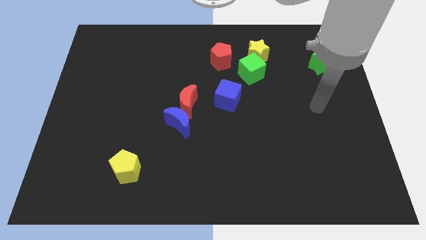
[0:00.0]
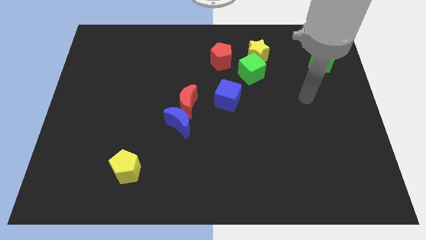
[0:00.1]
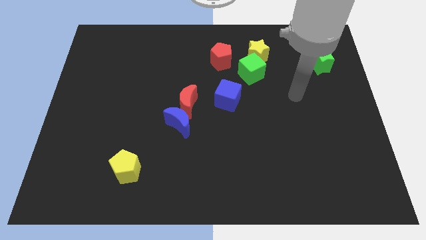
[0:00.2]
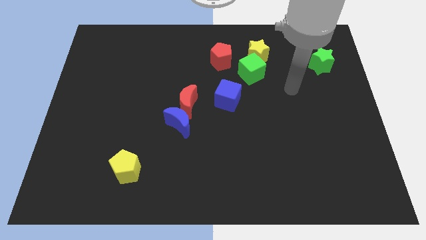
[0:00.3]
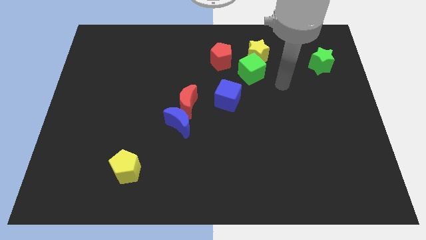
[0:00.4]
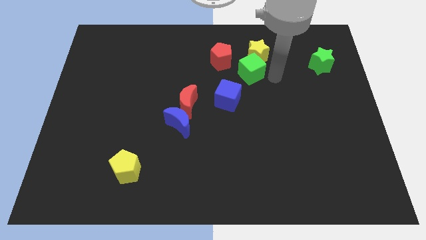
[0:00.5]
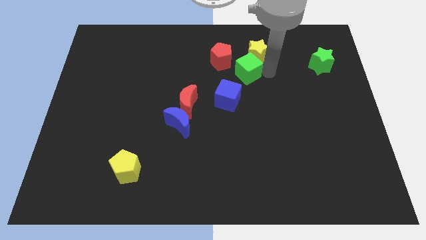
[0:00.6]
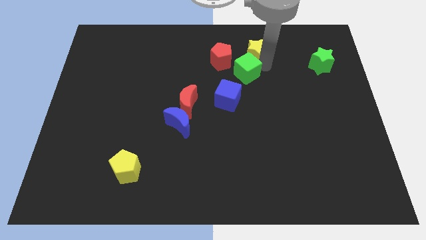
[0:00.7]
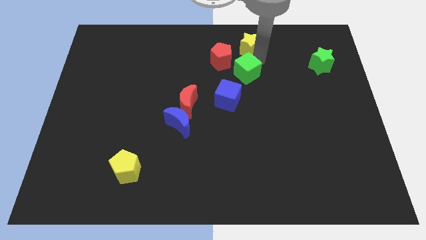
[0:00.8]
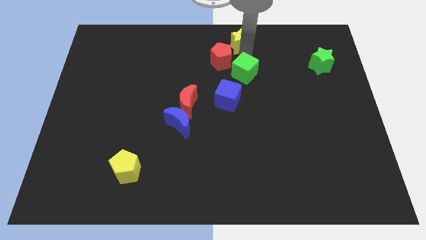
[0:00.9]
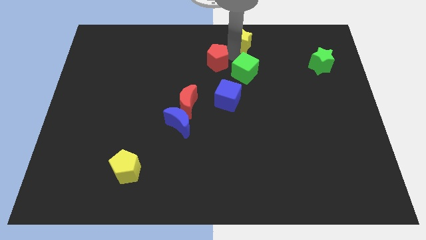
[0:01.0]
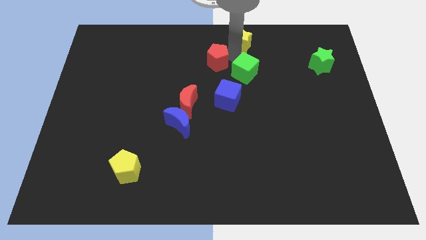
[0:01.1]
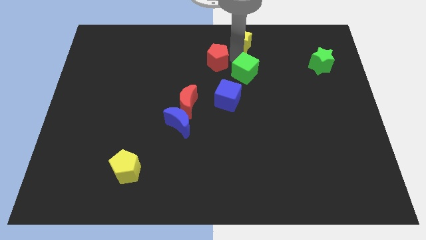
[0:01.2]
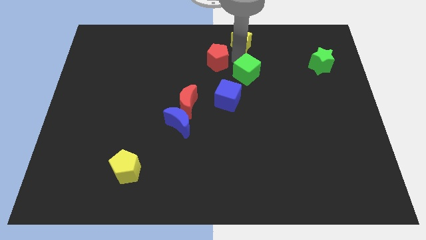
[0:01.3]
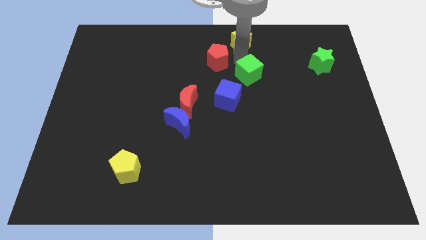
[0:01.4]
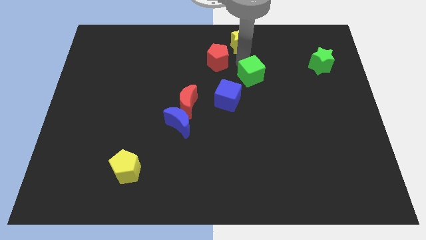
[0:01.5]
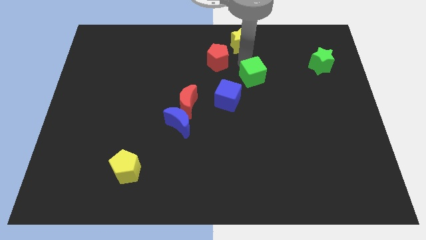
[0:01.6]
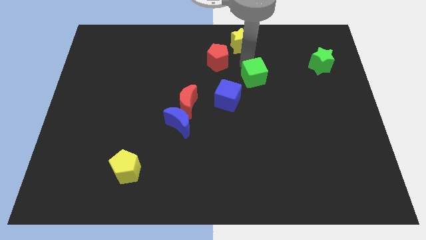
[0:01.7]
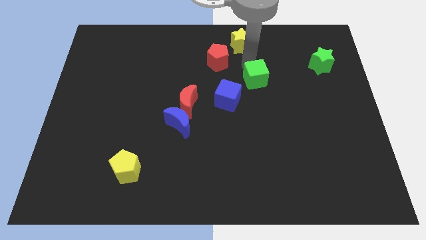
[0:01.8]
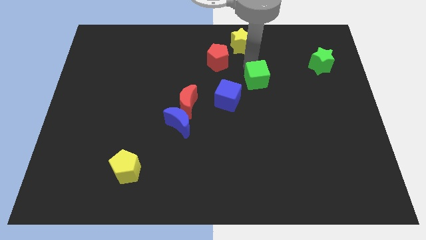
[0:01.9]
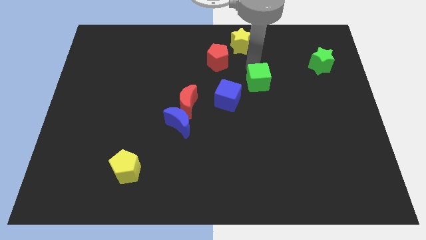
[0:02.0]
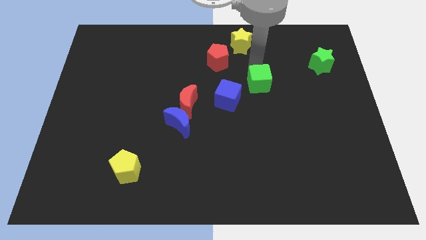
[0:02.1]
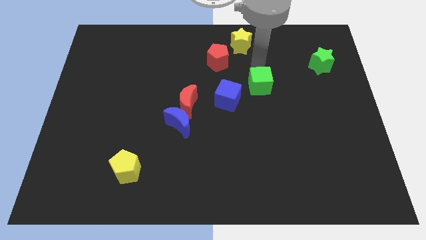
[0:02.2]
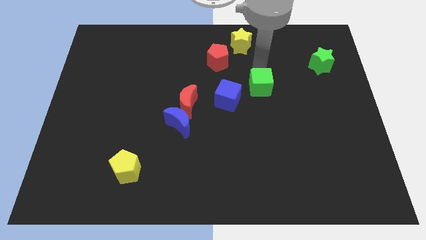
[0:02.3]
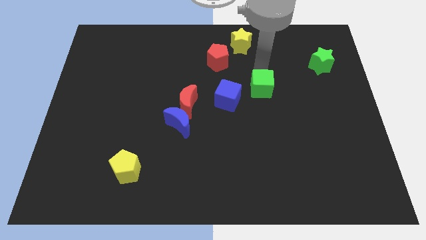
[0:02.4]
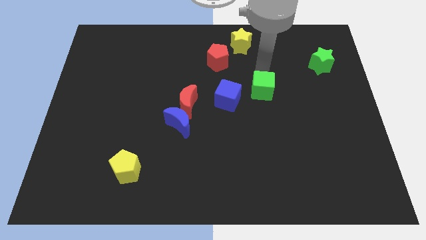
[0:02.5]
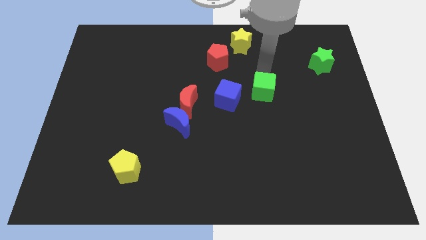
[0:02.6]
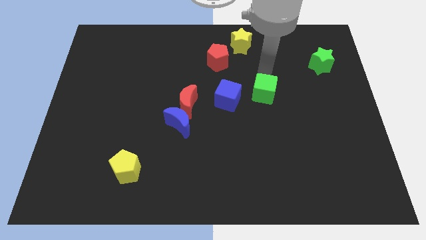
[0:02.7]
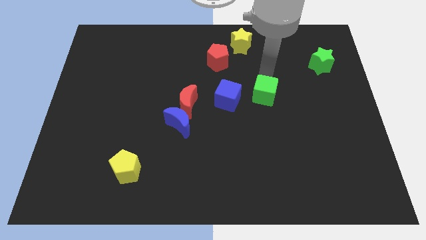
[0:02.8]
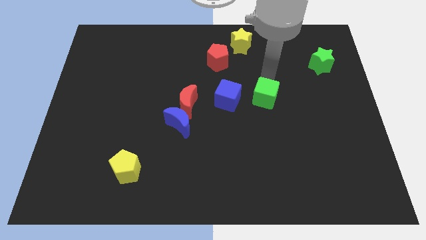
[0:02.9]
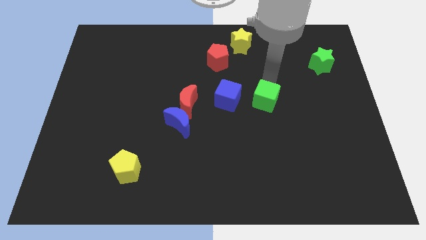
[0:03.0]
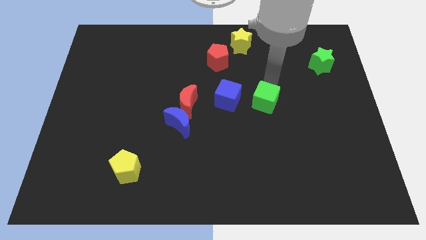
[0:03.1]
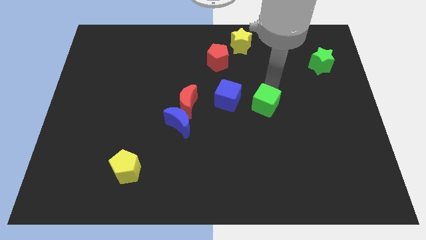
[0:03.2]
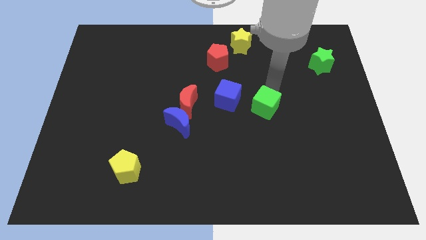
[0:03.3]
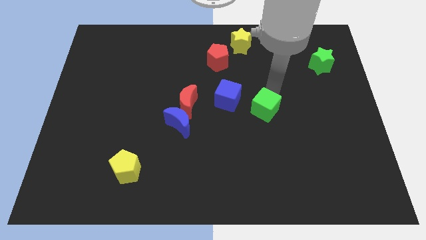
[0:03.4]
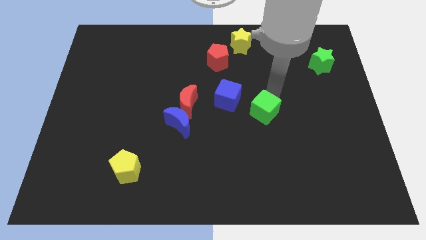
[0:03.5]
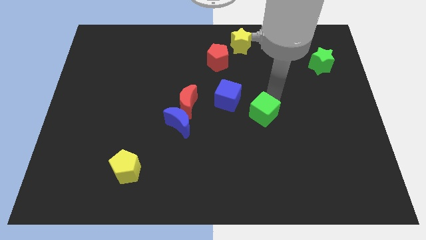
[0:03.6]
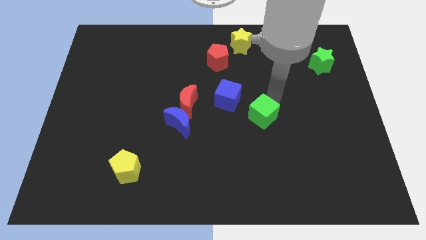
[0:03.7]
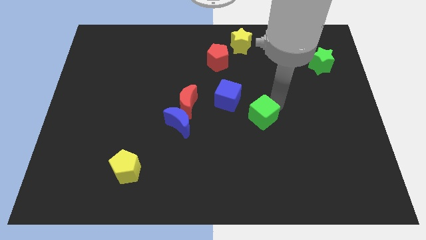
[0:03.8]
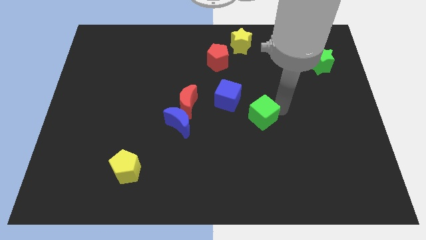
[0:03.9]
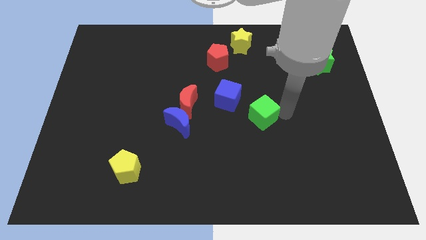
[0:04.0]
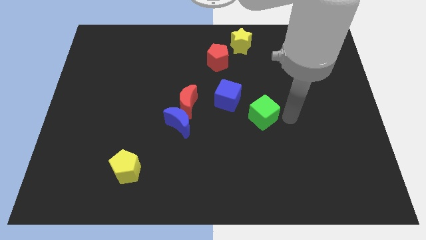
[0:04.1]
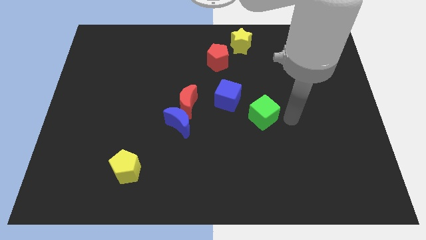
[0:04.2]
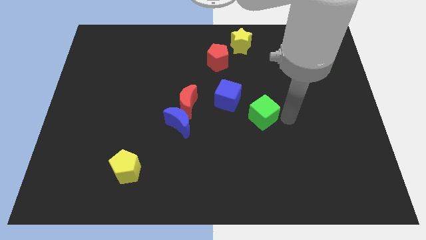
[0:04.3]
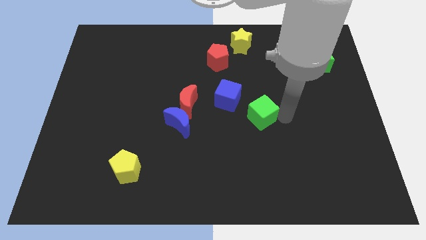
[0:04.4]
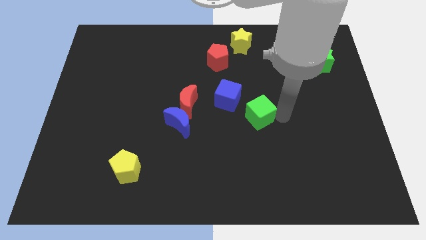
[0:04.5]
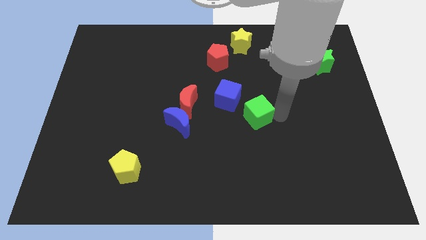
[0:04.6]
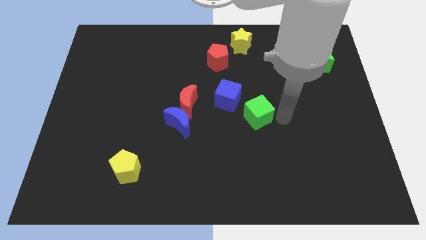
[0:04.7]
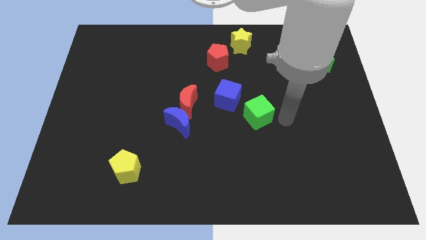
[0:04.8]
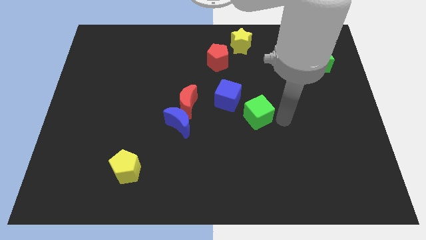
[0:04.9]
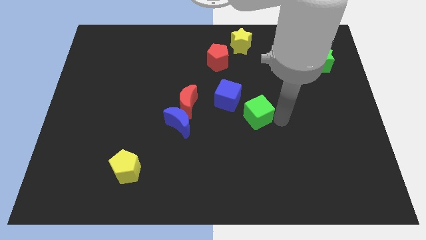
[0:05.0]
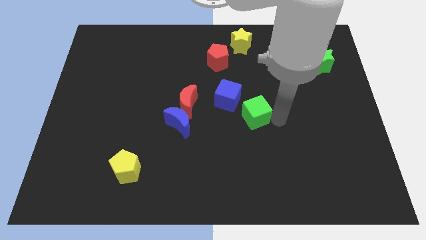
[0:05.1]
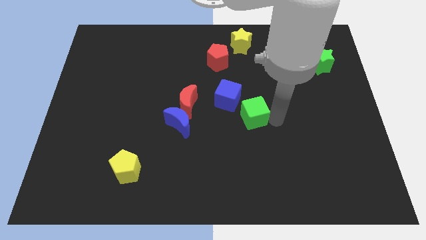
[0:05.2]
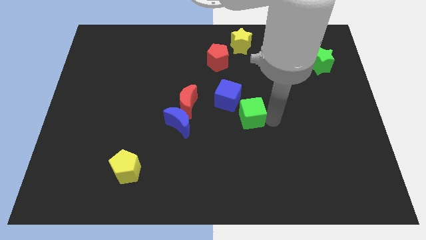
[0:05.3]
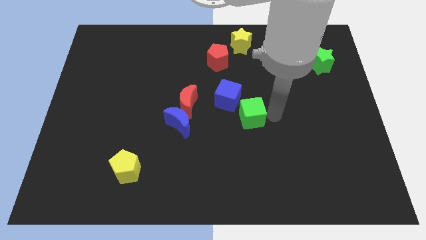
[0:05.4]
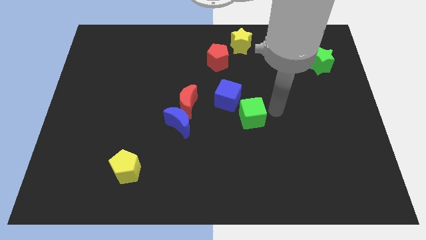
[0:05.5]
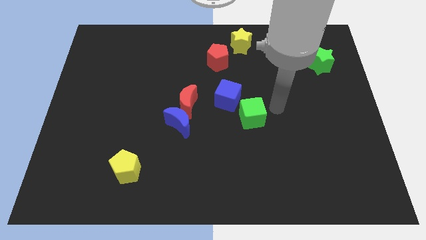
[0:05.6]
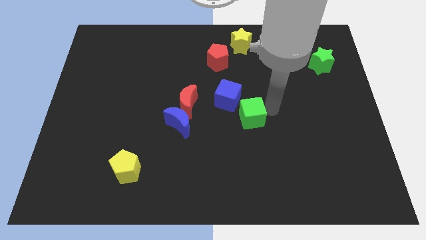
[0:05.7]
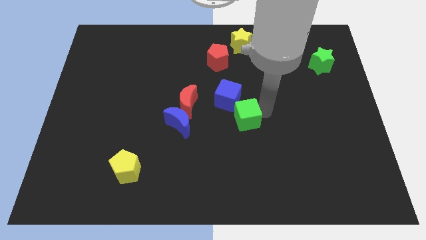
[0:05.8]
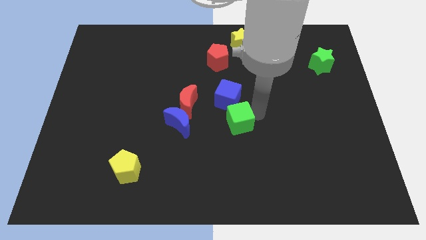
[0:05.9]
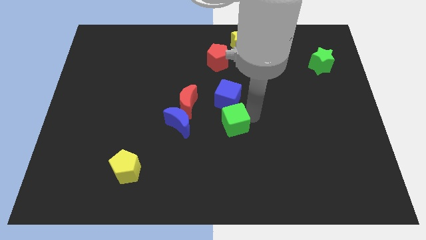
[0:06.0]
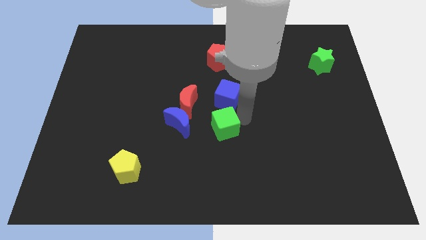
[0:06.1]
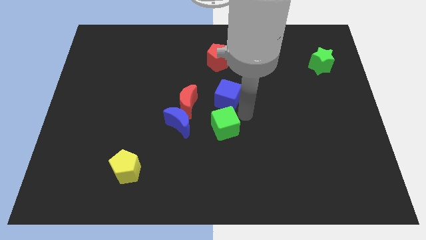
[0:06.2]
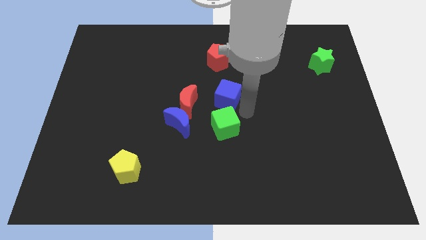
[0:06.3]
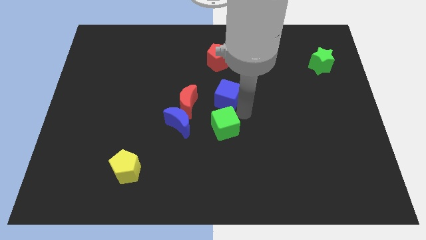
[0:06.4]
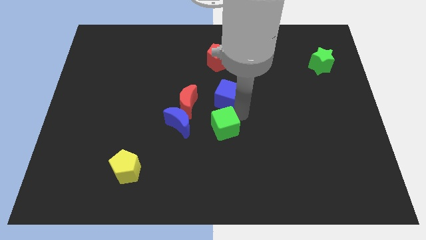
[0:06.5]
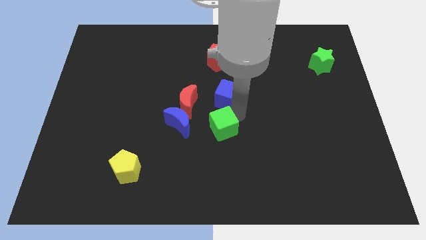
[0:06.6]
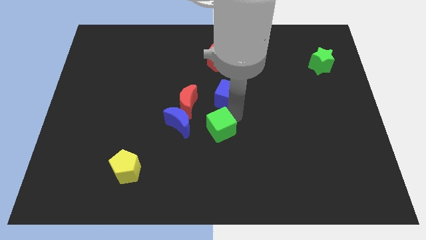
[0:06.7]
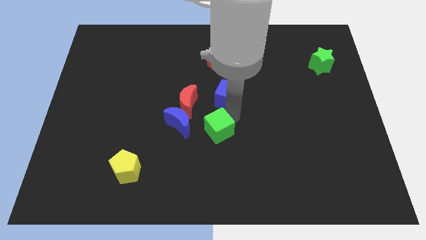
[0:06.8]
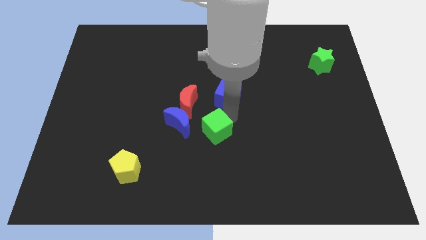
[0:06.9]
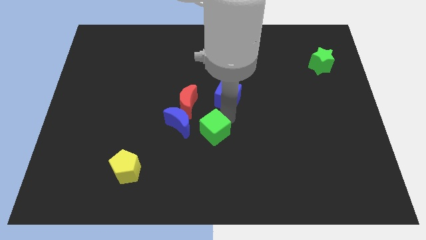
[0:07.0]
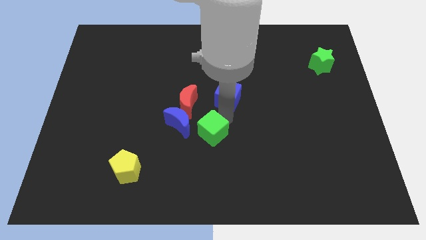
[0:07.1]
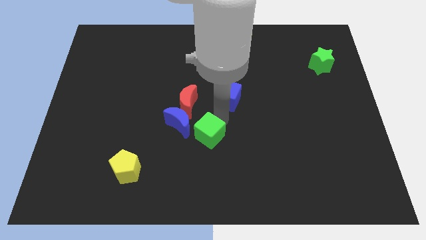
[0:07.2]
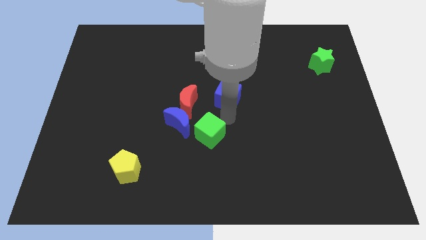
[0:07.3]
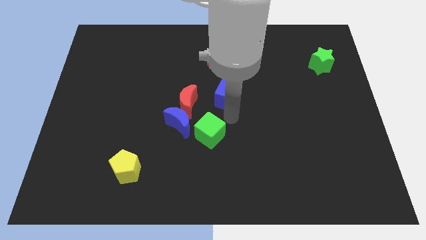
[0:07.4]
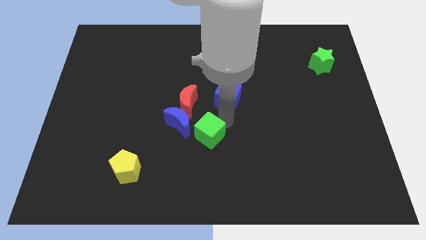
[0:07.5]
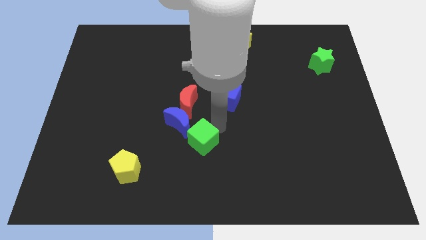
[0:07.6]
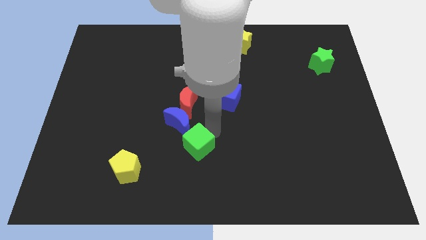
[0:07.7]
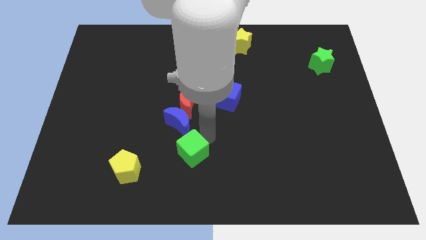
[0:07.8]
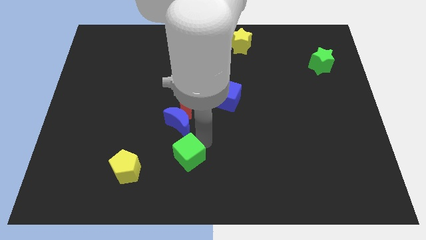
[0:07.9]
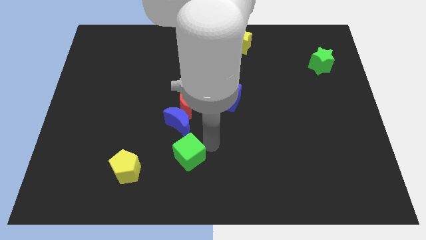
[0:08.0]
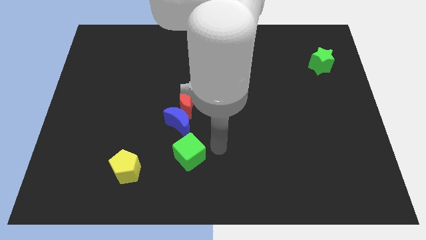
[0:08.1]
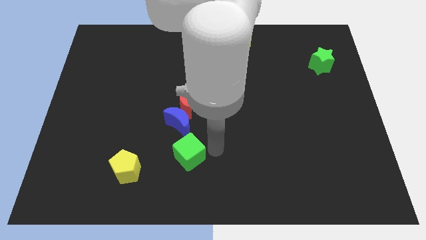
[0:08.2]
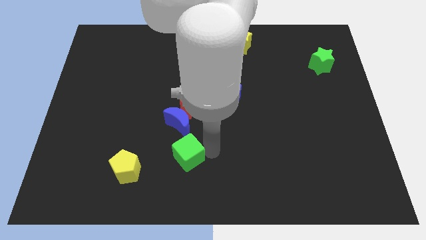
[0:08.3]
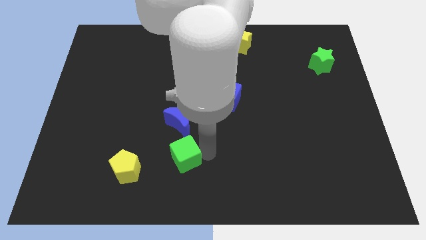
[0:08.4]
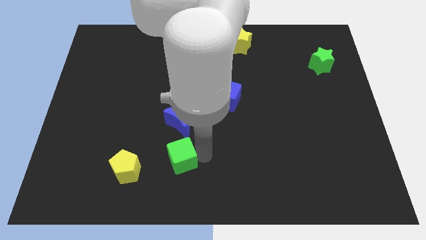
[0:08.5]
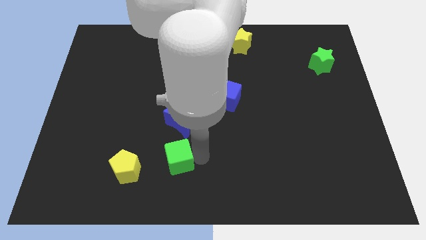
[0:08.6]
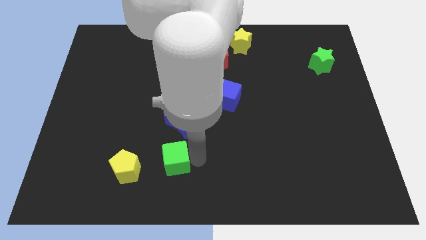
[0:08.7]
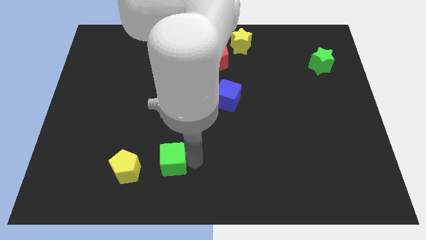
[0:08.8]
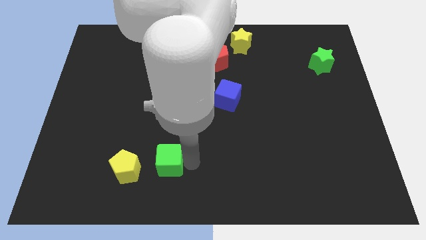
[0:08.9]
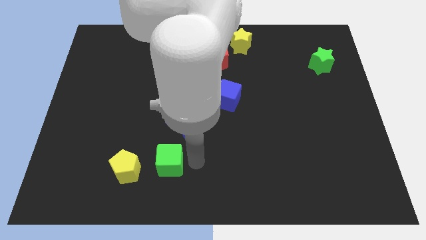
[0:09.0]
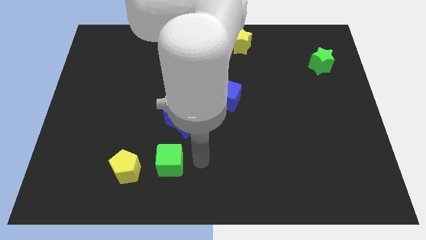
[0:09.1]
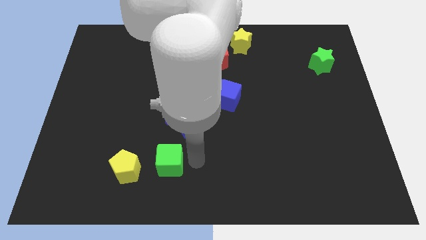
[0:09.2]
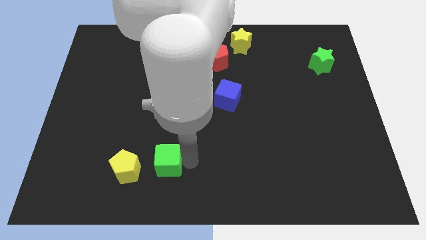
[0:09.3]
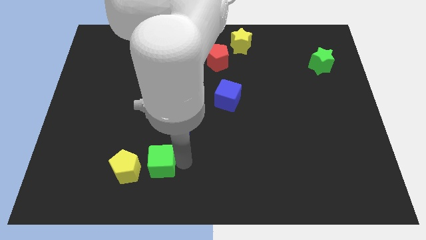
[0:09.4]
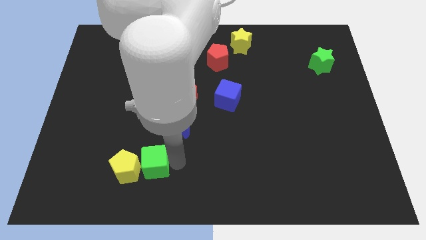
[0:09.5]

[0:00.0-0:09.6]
move the green cube towards the yellow pentagon
